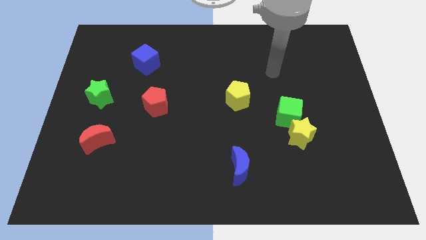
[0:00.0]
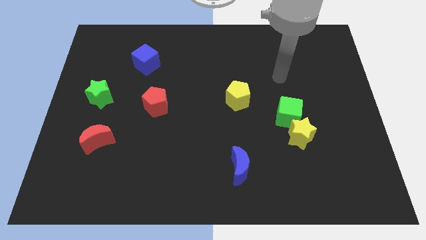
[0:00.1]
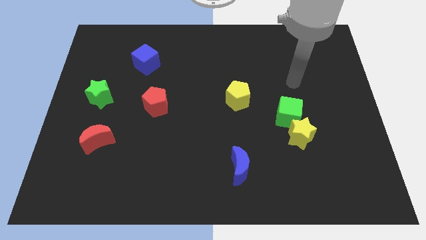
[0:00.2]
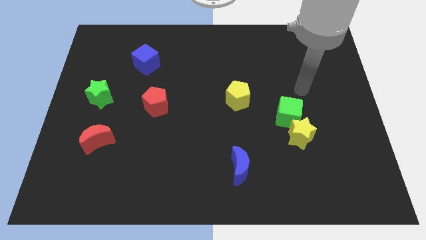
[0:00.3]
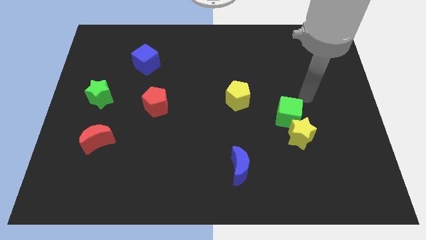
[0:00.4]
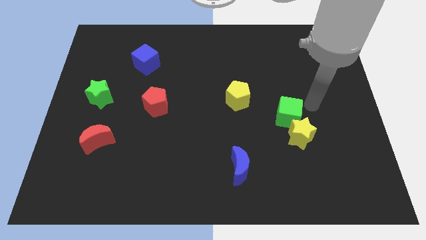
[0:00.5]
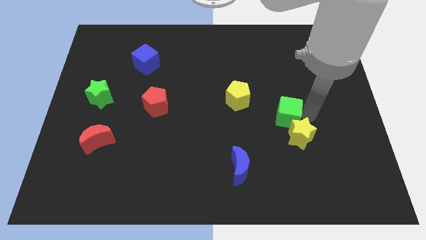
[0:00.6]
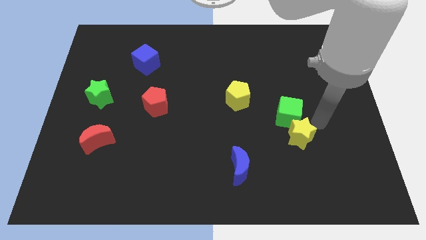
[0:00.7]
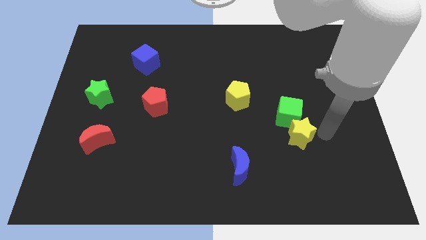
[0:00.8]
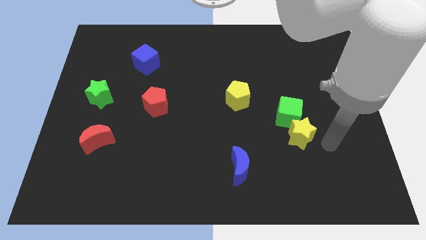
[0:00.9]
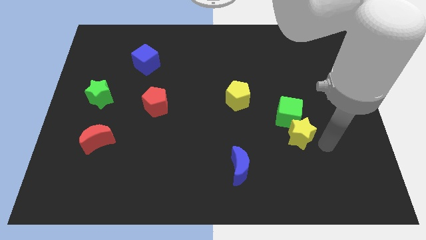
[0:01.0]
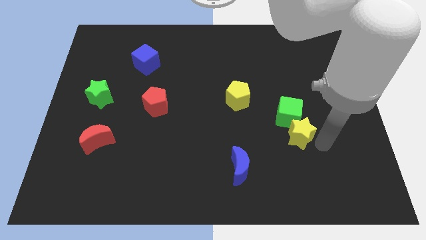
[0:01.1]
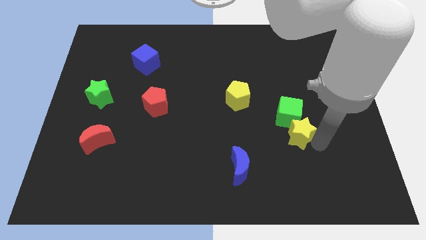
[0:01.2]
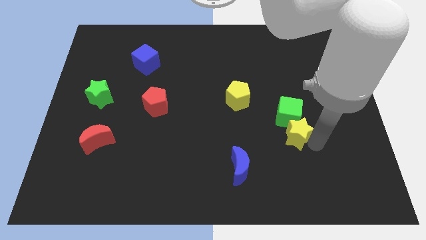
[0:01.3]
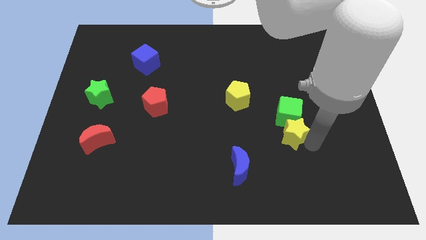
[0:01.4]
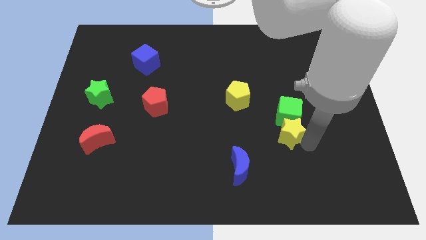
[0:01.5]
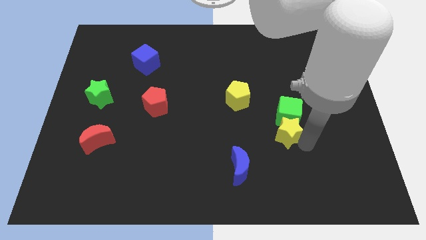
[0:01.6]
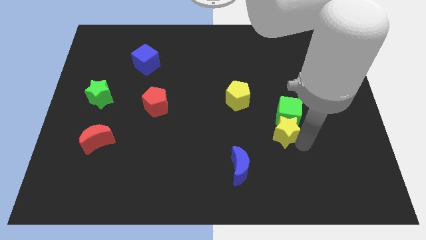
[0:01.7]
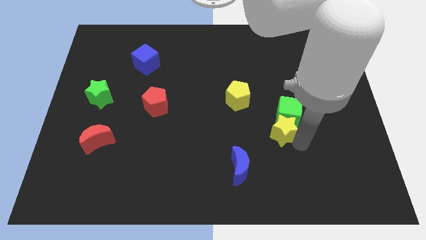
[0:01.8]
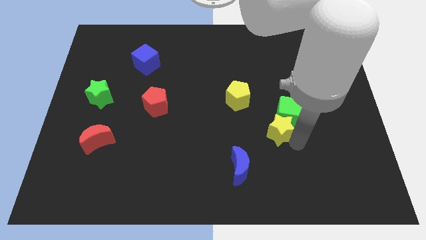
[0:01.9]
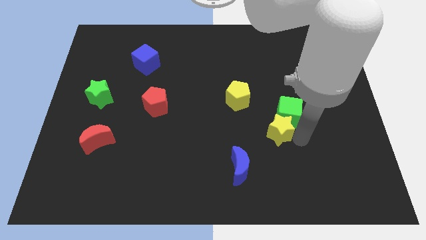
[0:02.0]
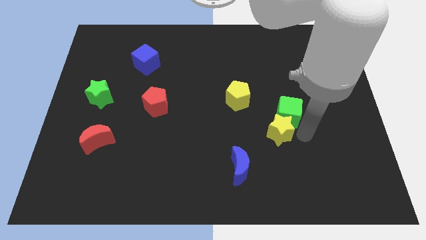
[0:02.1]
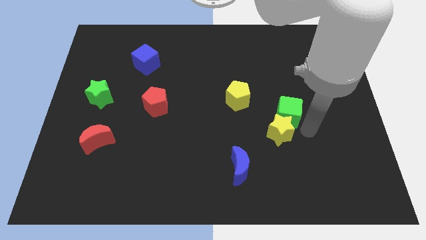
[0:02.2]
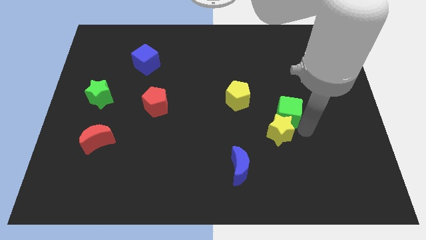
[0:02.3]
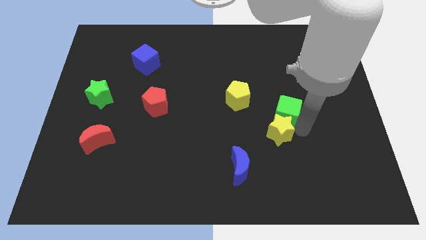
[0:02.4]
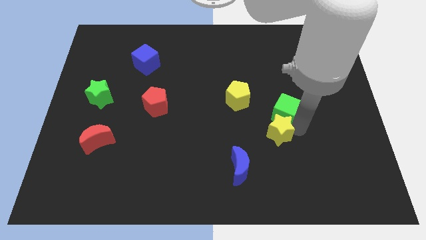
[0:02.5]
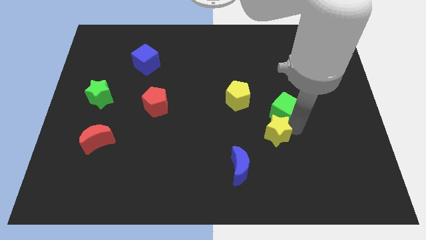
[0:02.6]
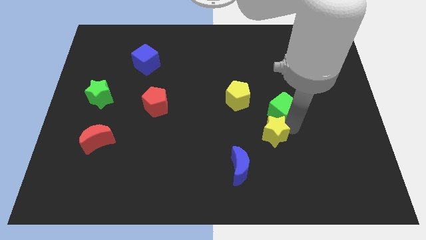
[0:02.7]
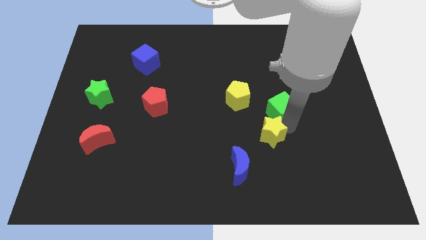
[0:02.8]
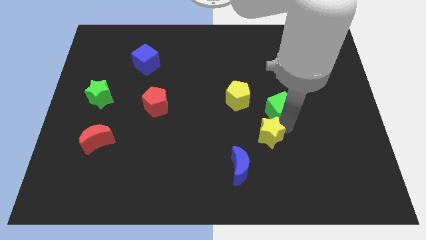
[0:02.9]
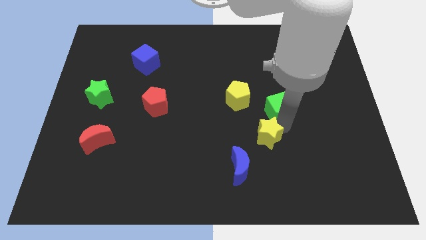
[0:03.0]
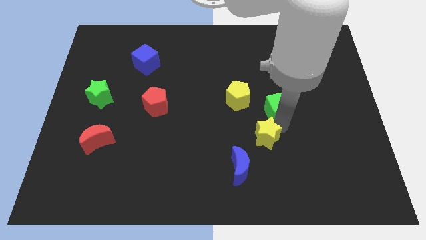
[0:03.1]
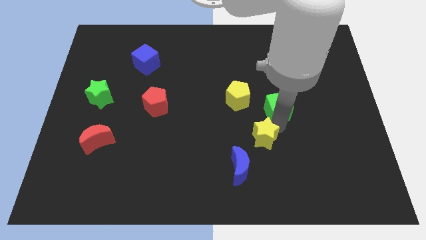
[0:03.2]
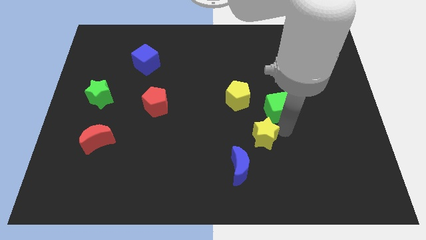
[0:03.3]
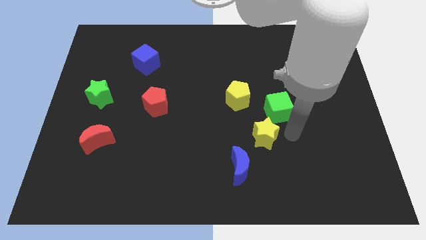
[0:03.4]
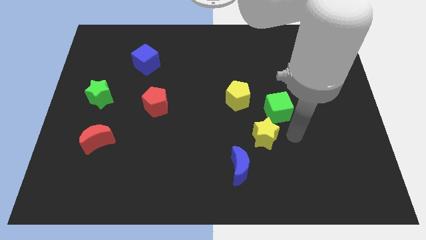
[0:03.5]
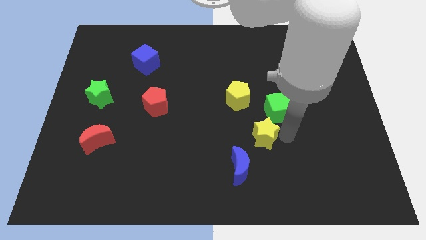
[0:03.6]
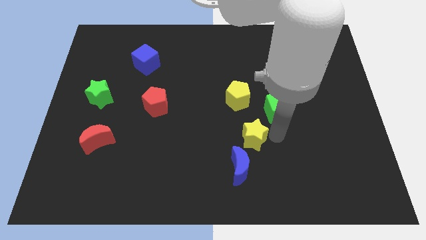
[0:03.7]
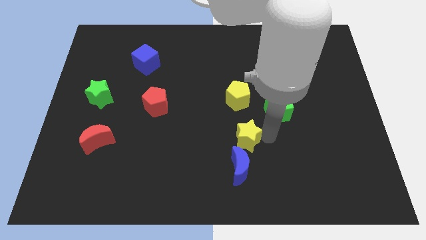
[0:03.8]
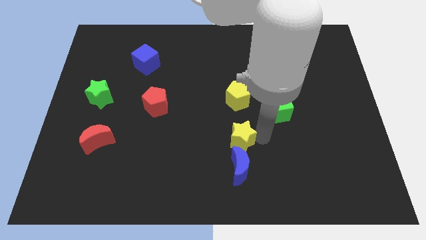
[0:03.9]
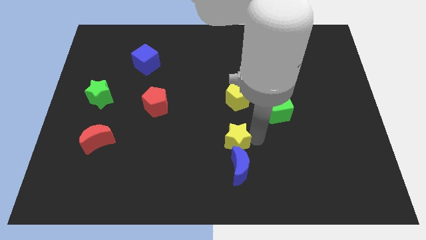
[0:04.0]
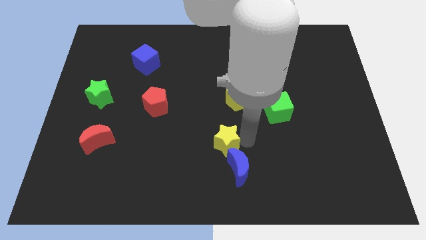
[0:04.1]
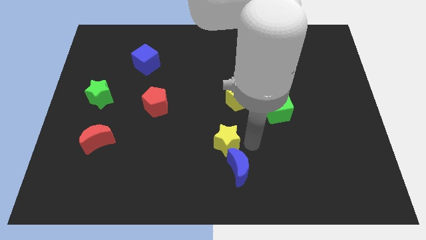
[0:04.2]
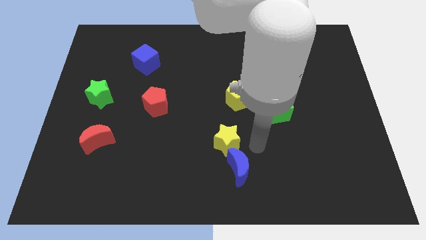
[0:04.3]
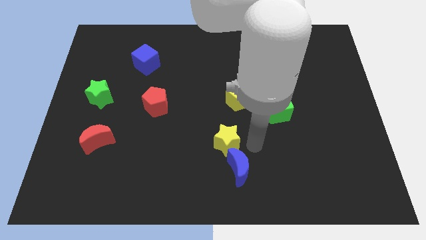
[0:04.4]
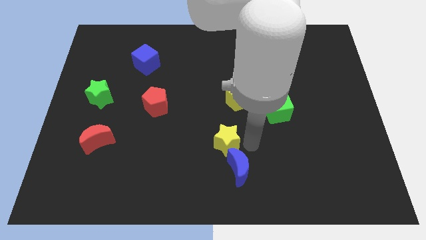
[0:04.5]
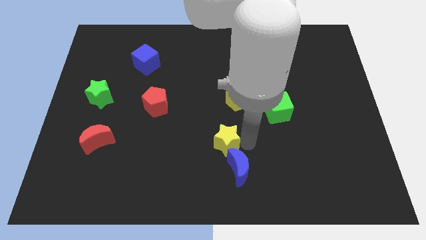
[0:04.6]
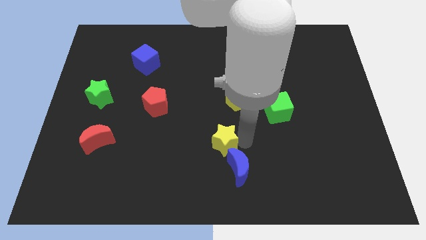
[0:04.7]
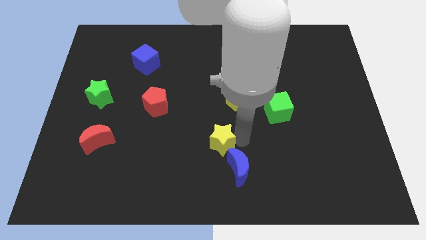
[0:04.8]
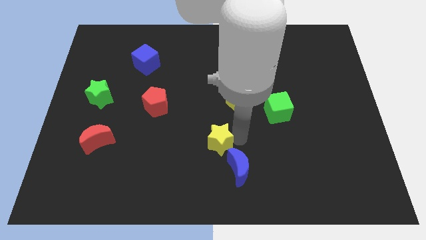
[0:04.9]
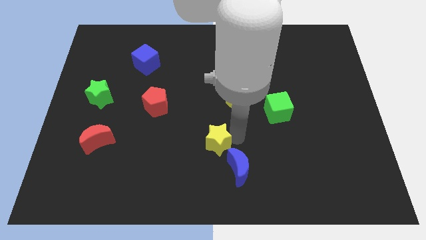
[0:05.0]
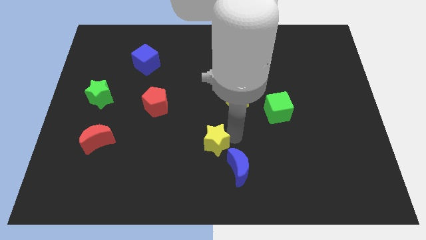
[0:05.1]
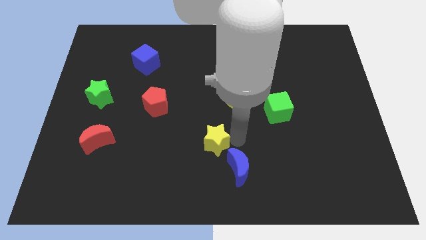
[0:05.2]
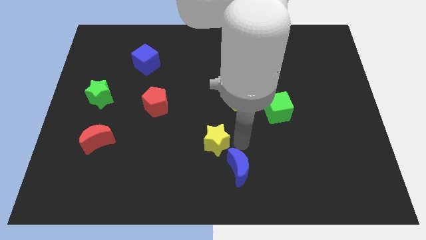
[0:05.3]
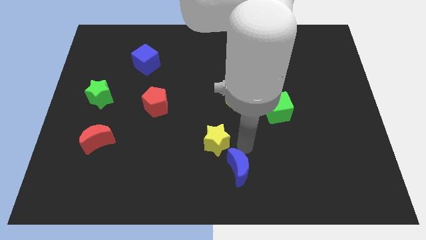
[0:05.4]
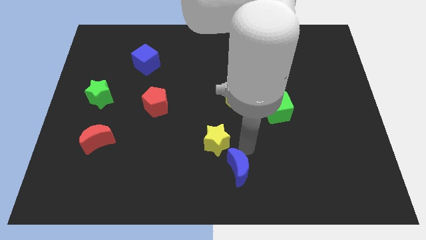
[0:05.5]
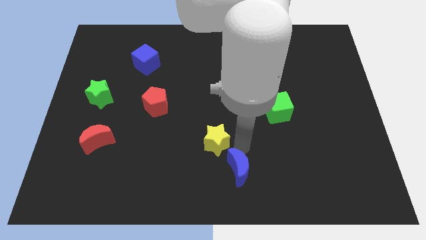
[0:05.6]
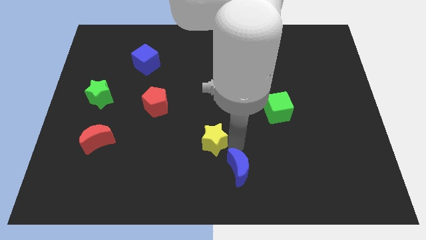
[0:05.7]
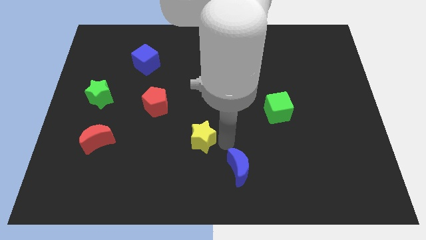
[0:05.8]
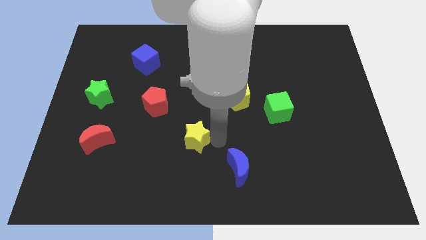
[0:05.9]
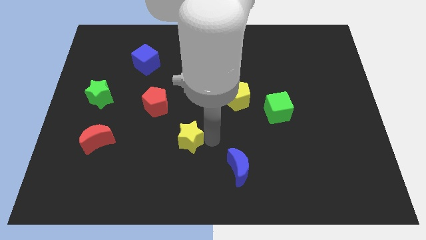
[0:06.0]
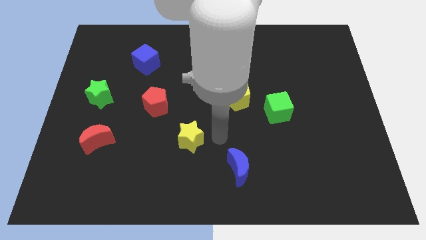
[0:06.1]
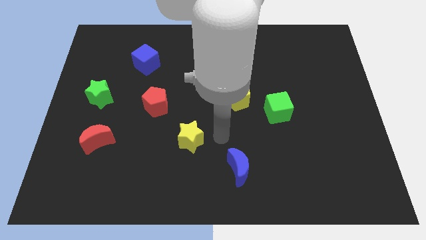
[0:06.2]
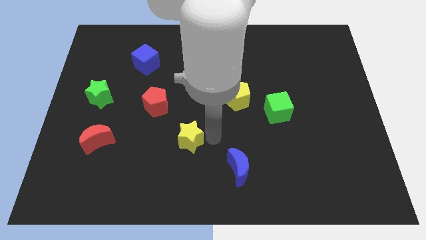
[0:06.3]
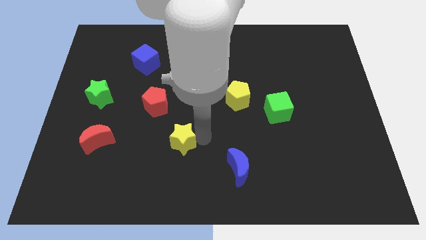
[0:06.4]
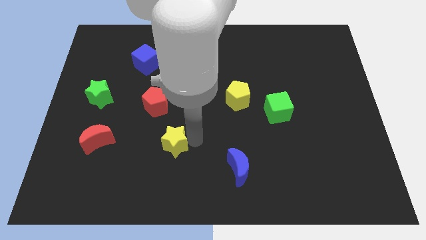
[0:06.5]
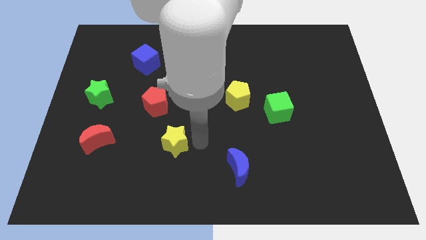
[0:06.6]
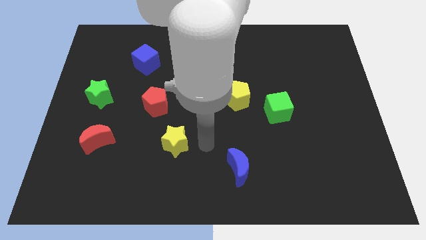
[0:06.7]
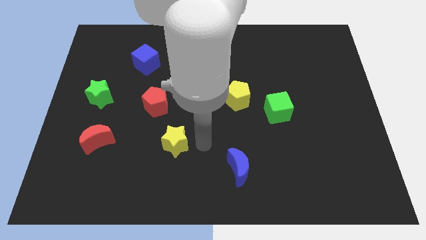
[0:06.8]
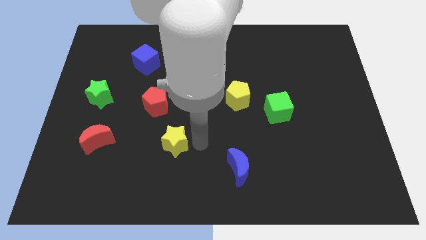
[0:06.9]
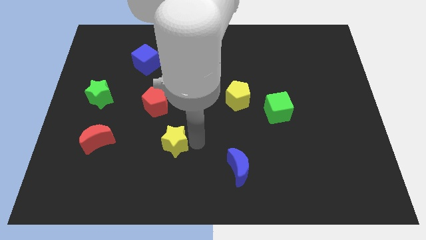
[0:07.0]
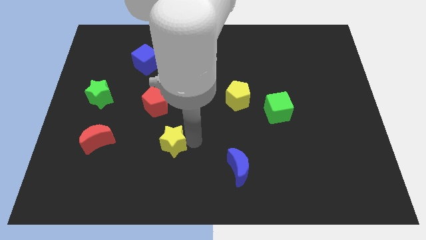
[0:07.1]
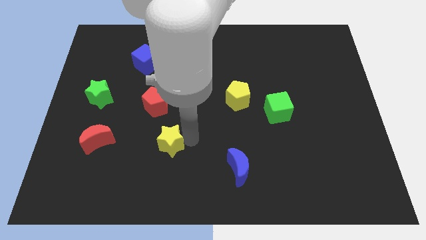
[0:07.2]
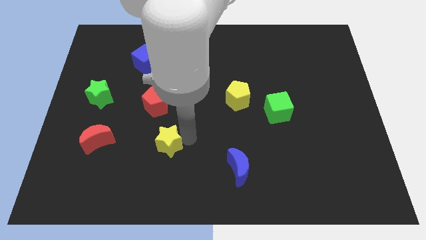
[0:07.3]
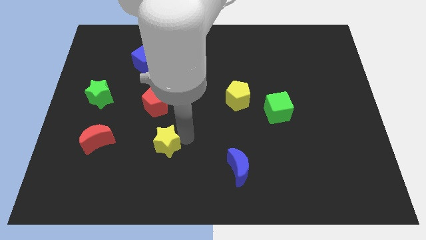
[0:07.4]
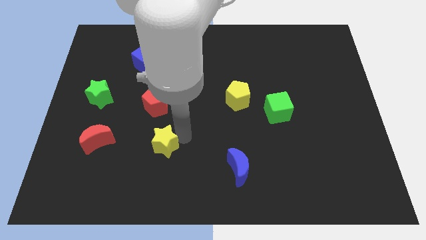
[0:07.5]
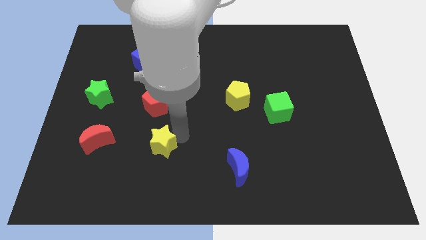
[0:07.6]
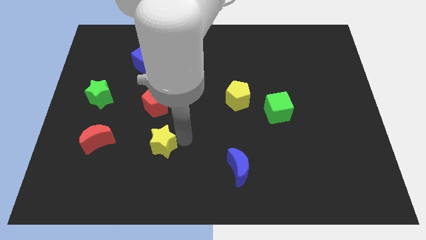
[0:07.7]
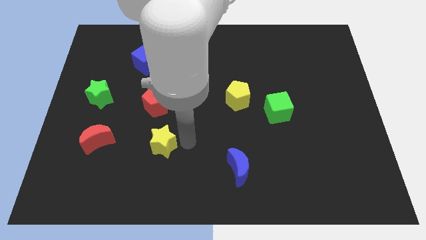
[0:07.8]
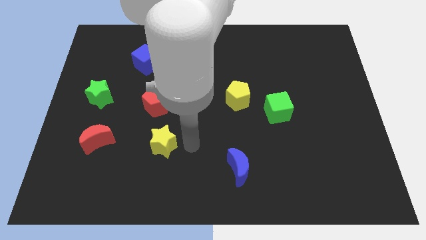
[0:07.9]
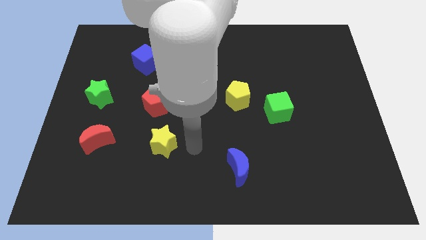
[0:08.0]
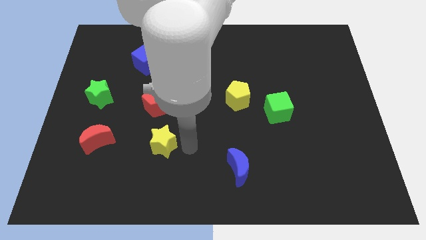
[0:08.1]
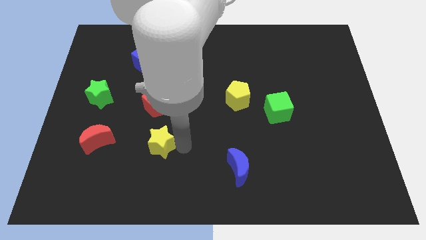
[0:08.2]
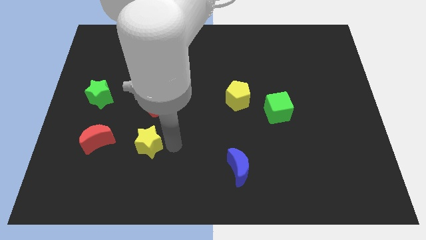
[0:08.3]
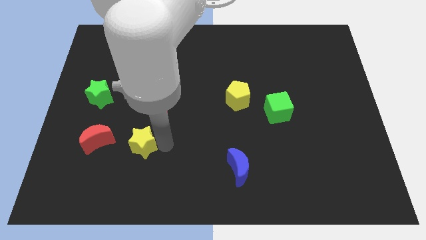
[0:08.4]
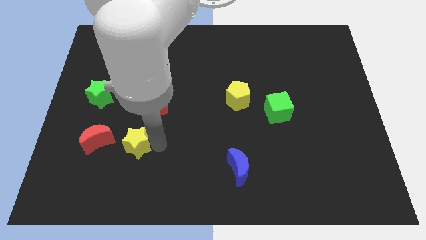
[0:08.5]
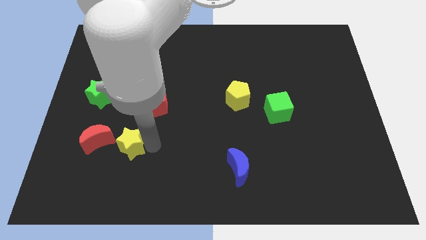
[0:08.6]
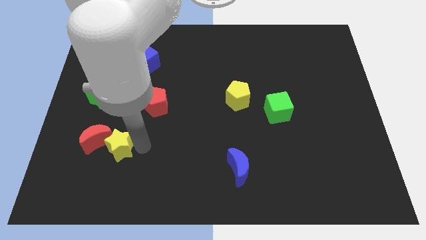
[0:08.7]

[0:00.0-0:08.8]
slide the yellow star towards the red moon
